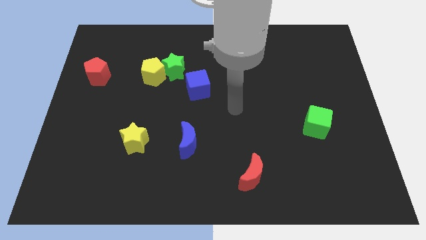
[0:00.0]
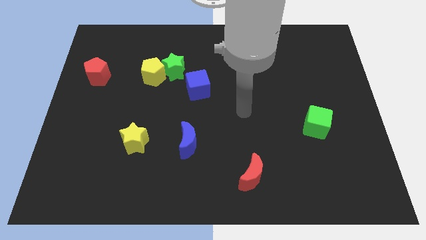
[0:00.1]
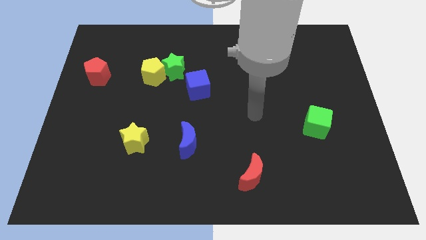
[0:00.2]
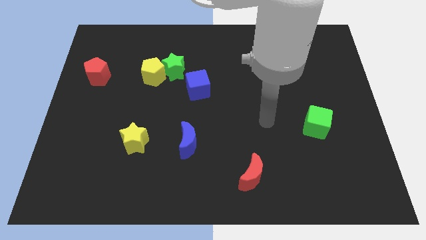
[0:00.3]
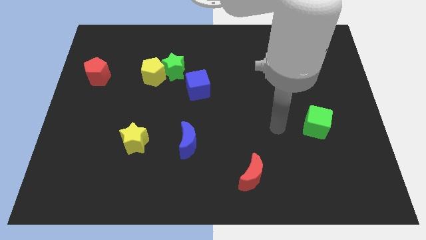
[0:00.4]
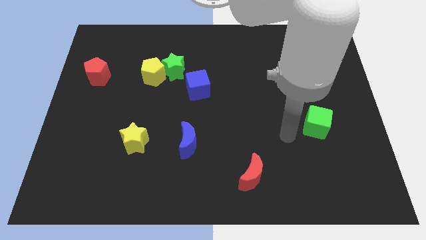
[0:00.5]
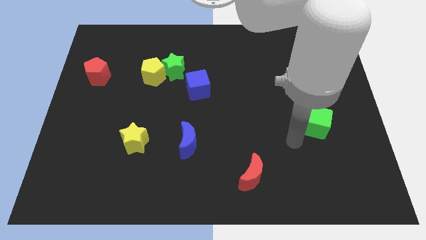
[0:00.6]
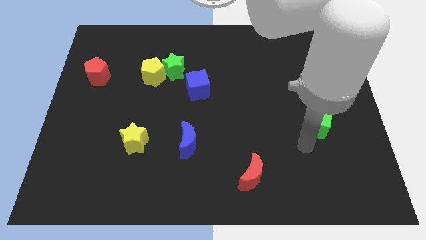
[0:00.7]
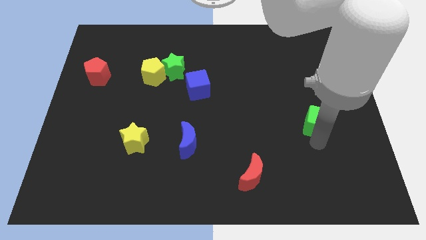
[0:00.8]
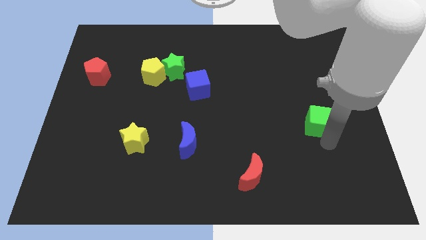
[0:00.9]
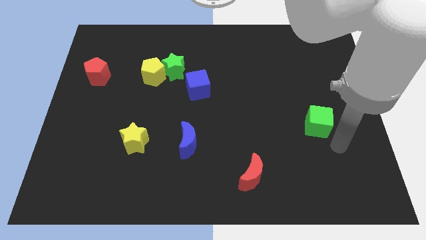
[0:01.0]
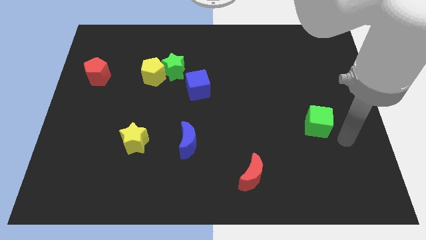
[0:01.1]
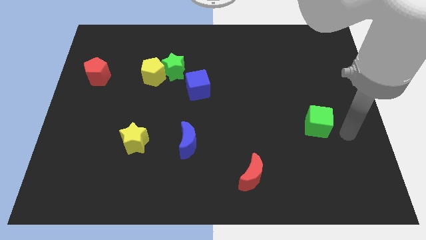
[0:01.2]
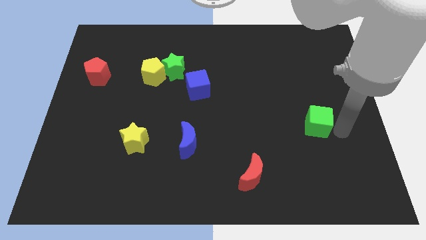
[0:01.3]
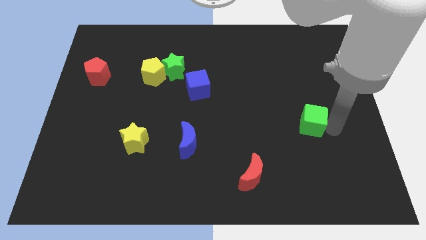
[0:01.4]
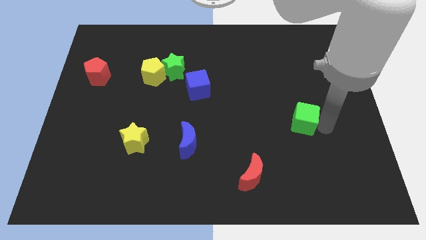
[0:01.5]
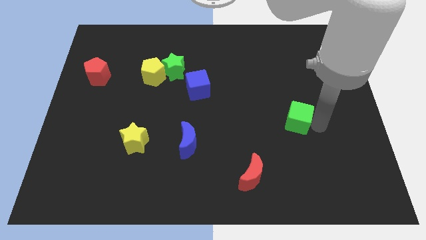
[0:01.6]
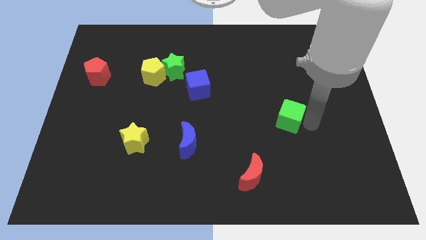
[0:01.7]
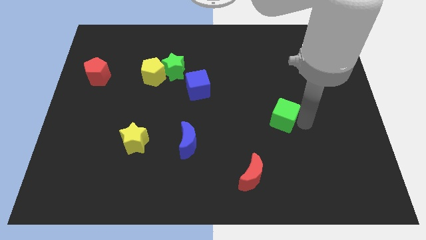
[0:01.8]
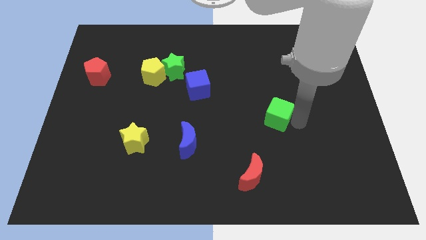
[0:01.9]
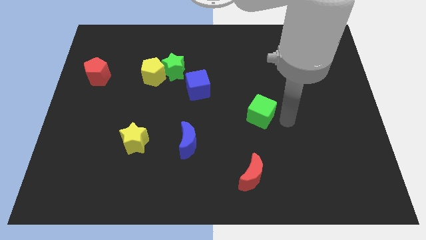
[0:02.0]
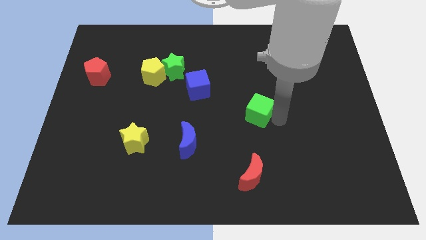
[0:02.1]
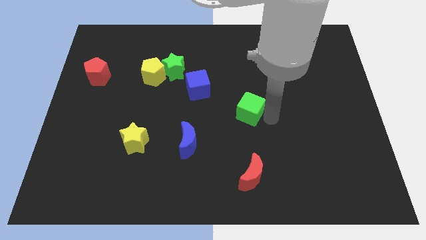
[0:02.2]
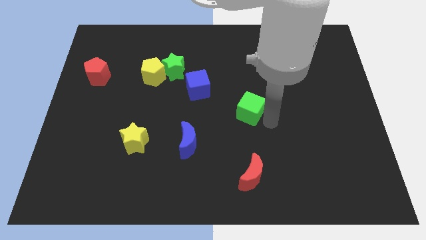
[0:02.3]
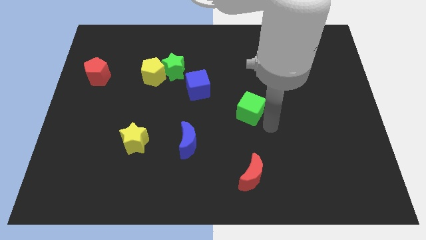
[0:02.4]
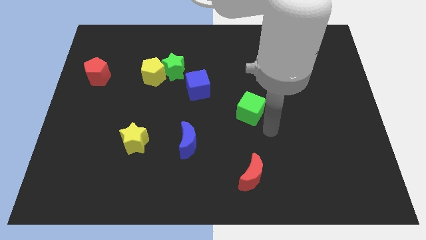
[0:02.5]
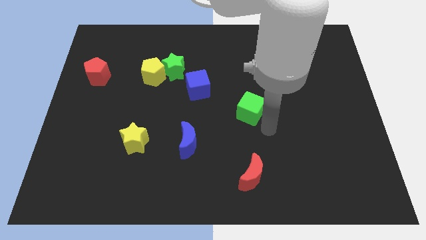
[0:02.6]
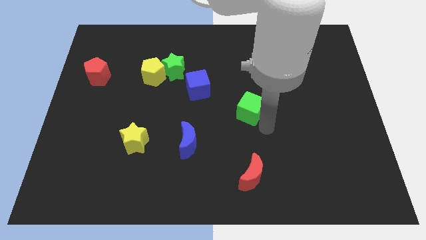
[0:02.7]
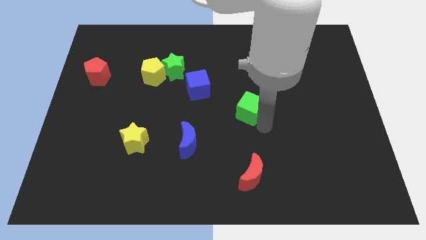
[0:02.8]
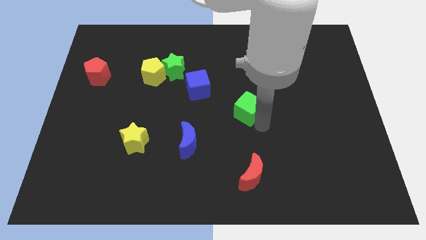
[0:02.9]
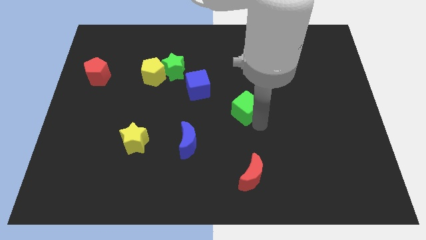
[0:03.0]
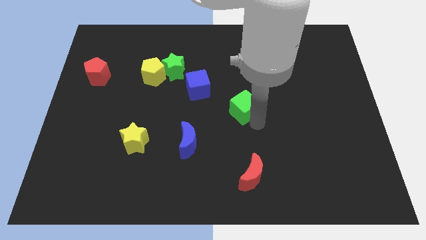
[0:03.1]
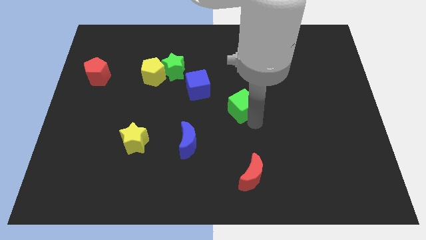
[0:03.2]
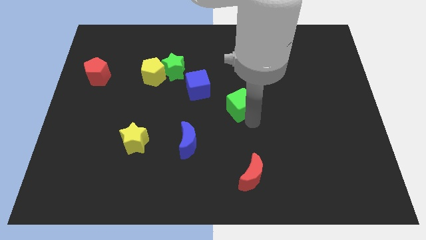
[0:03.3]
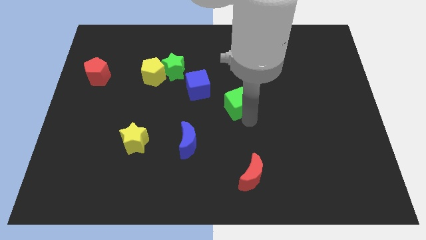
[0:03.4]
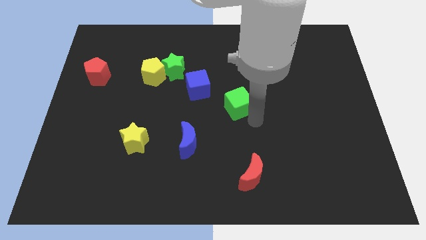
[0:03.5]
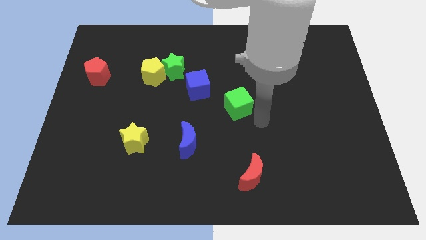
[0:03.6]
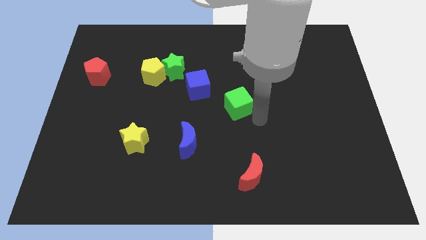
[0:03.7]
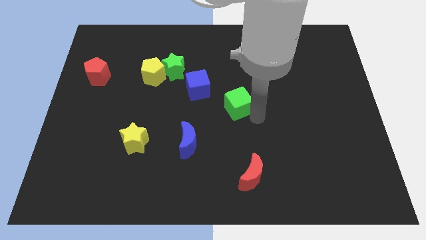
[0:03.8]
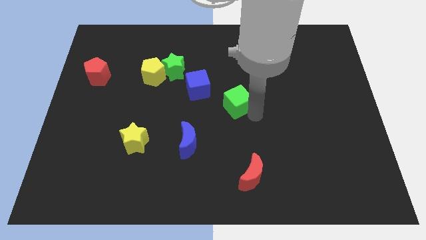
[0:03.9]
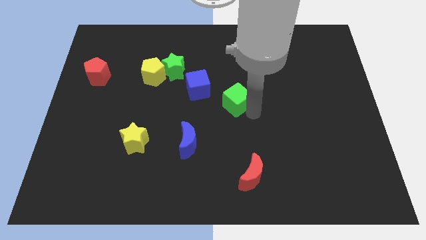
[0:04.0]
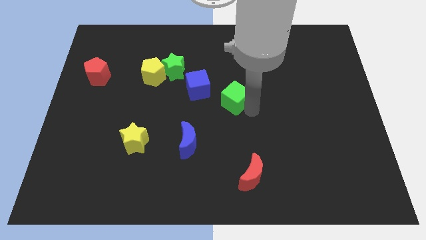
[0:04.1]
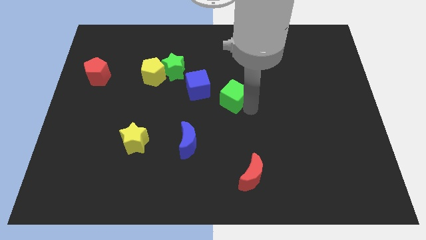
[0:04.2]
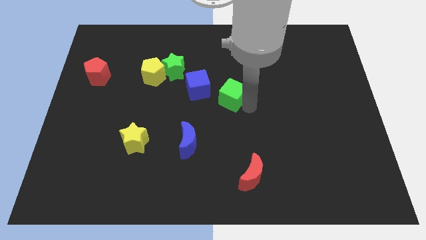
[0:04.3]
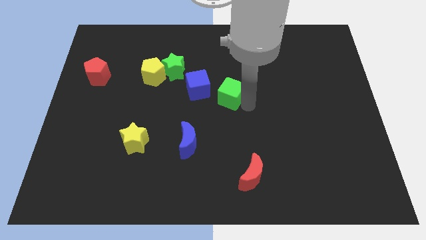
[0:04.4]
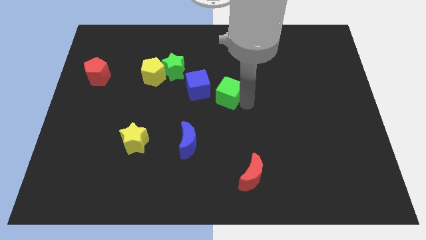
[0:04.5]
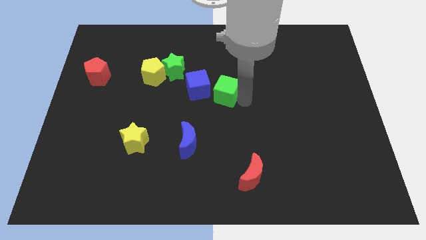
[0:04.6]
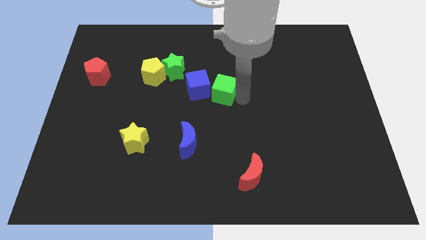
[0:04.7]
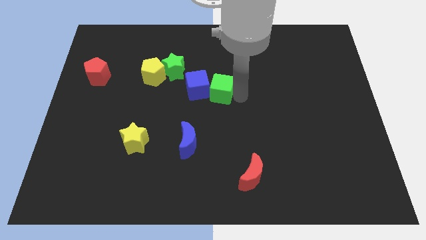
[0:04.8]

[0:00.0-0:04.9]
move the green cube close to the blue cube

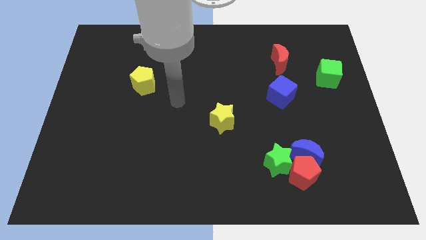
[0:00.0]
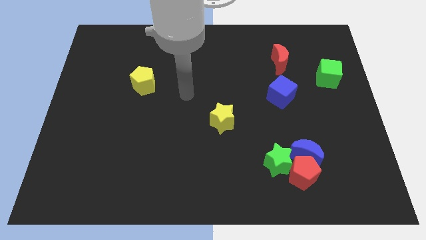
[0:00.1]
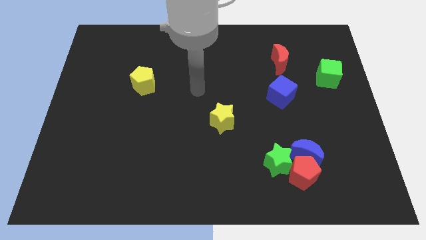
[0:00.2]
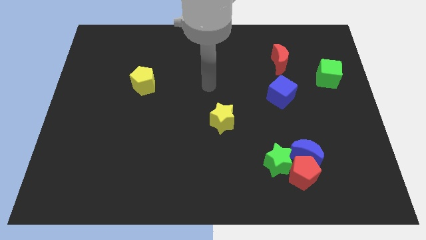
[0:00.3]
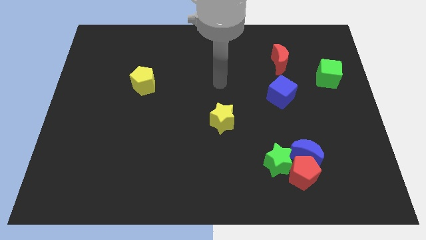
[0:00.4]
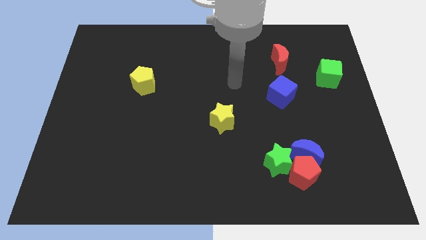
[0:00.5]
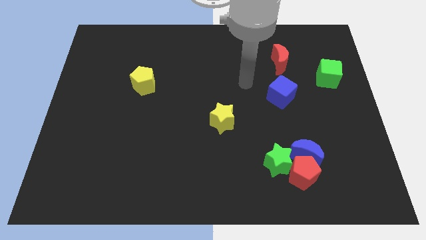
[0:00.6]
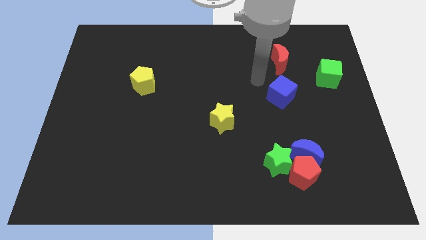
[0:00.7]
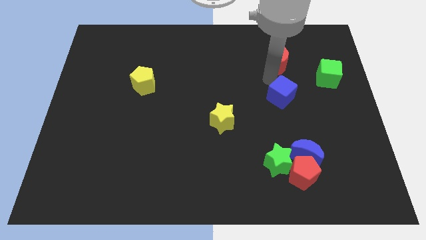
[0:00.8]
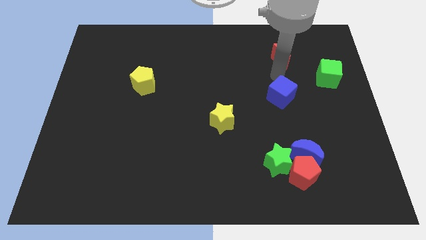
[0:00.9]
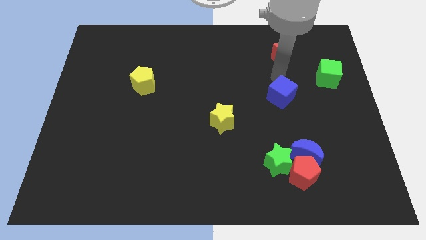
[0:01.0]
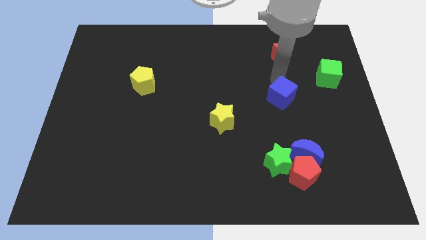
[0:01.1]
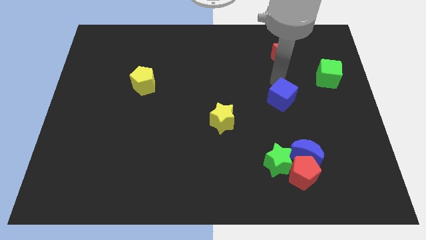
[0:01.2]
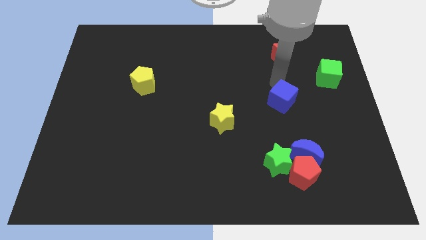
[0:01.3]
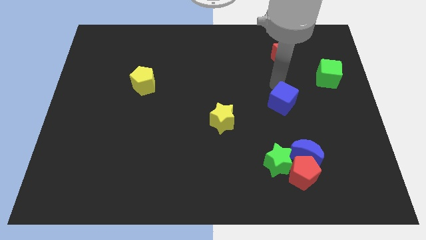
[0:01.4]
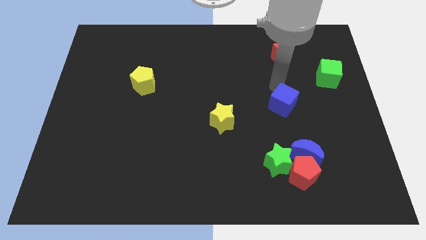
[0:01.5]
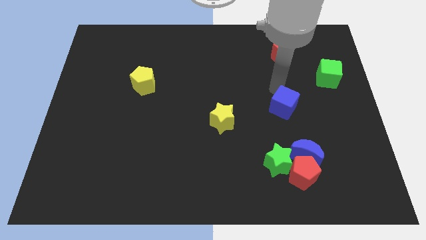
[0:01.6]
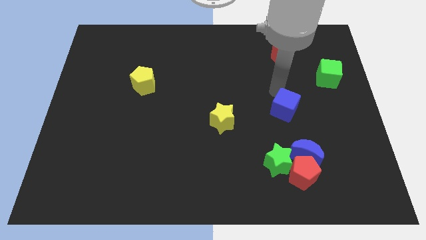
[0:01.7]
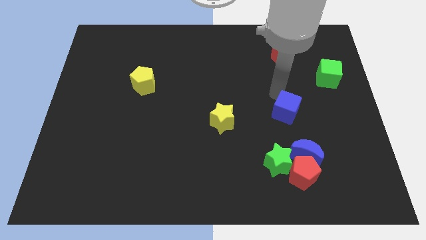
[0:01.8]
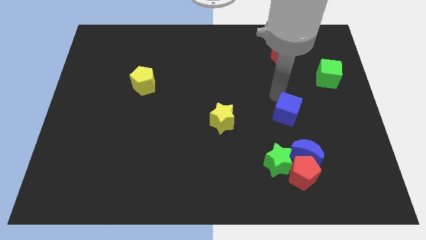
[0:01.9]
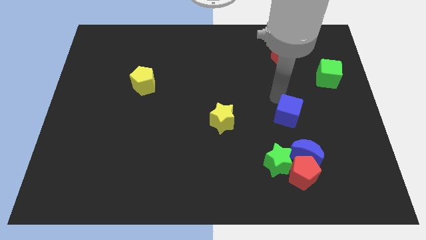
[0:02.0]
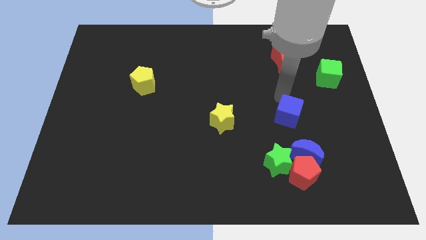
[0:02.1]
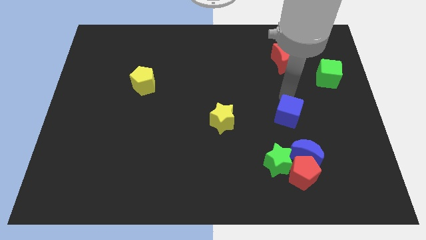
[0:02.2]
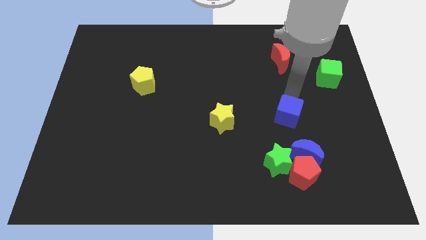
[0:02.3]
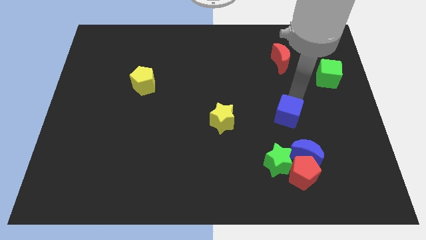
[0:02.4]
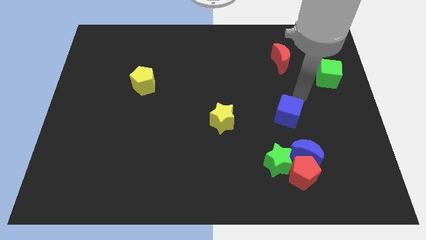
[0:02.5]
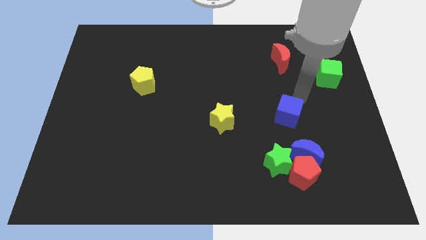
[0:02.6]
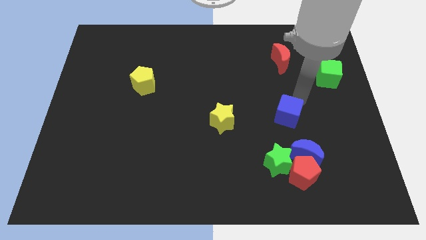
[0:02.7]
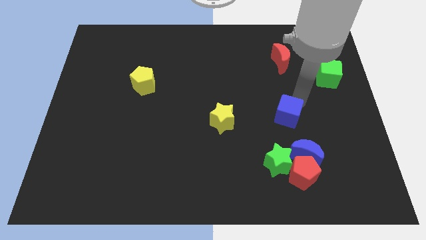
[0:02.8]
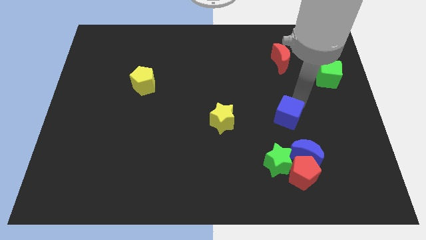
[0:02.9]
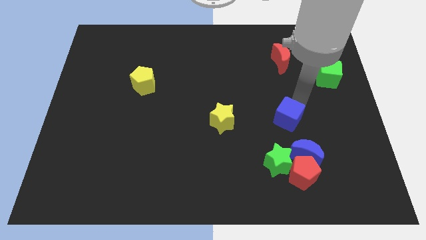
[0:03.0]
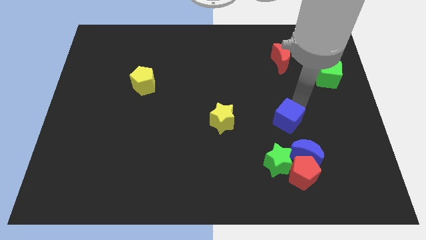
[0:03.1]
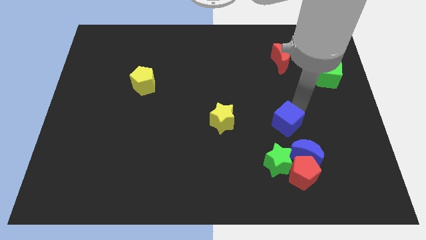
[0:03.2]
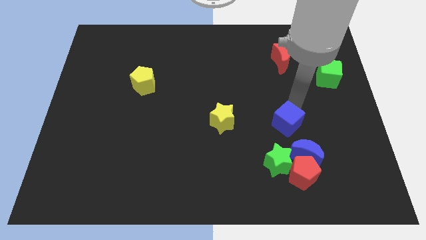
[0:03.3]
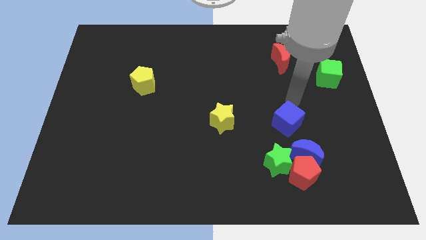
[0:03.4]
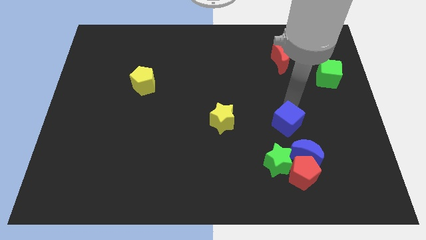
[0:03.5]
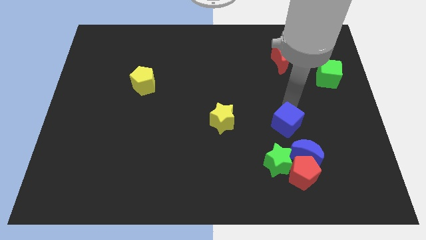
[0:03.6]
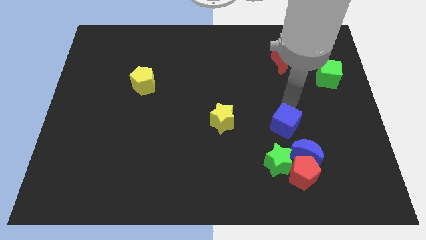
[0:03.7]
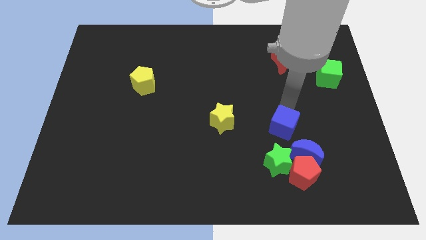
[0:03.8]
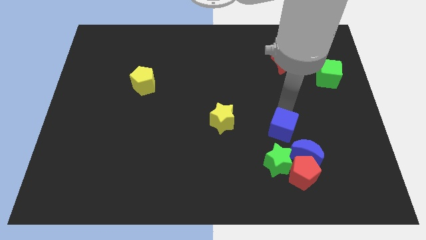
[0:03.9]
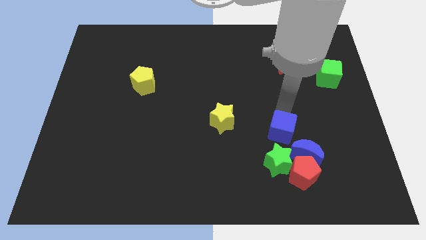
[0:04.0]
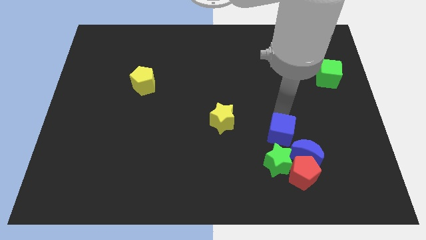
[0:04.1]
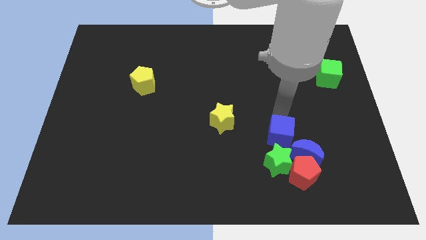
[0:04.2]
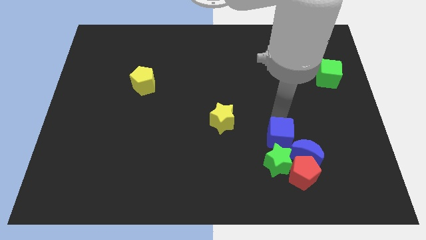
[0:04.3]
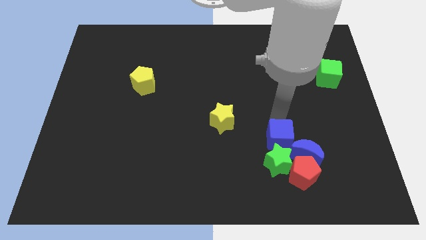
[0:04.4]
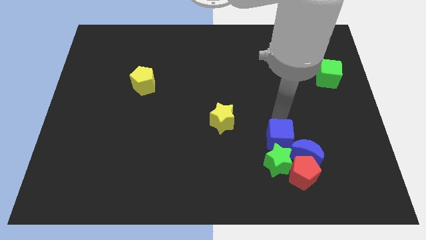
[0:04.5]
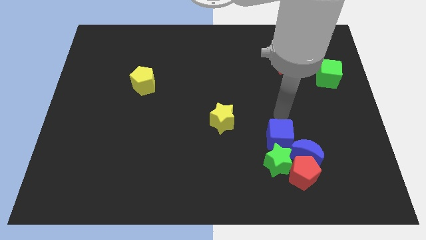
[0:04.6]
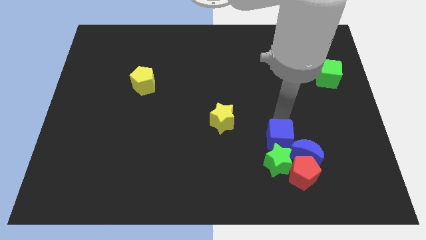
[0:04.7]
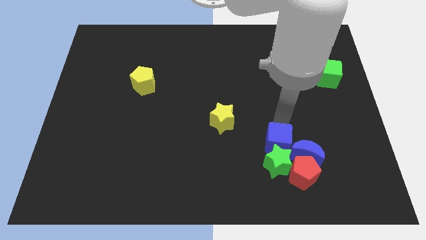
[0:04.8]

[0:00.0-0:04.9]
slide the blue cube towards the green star
